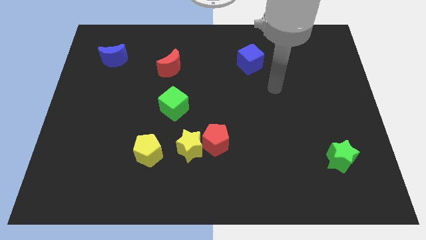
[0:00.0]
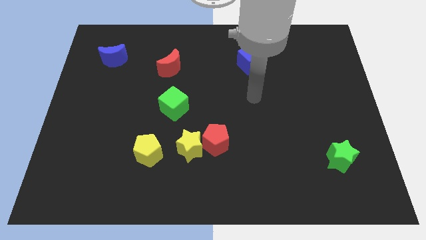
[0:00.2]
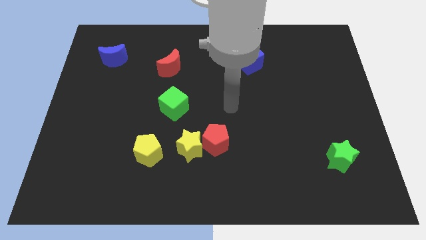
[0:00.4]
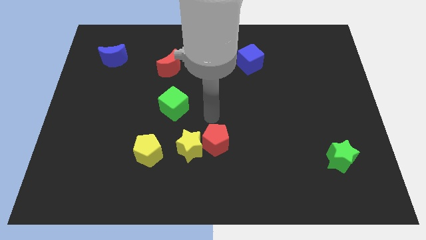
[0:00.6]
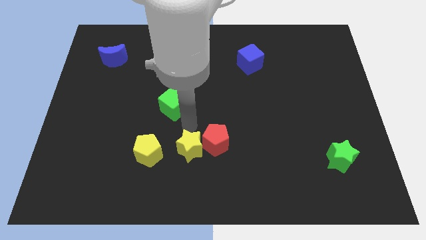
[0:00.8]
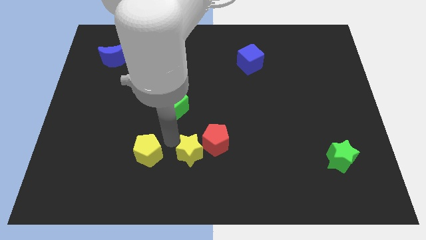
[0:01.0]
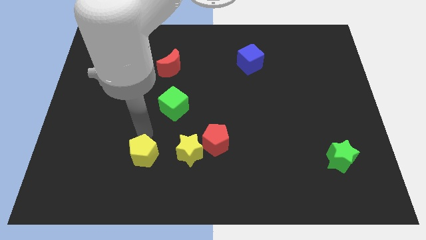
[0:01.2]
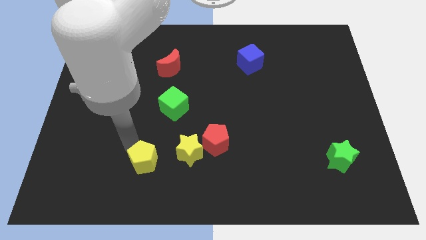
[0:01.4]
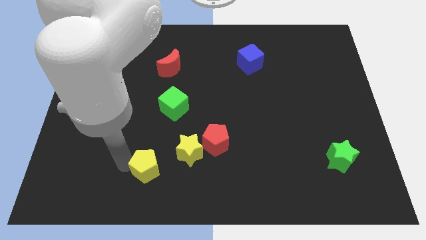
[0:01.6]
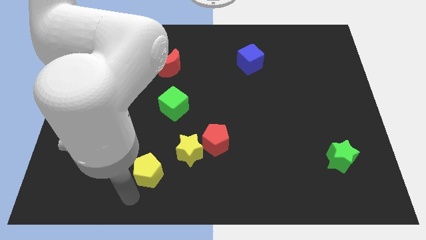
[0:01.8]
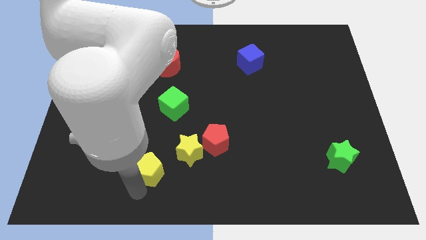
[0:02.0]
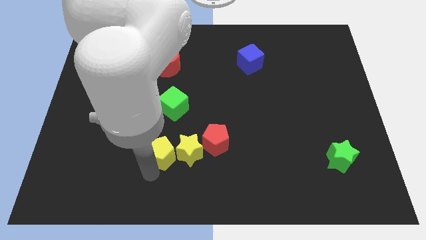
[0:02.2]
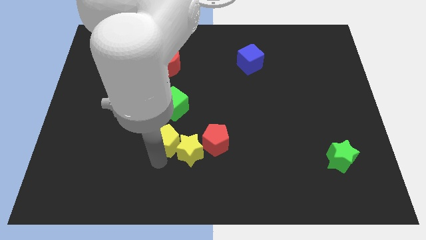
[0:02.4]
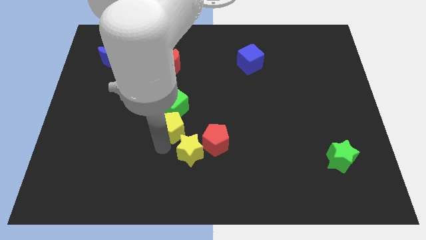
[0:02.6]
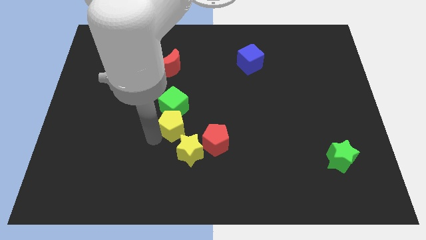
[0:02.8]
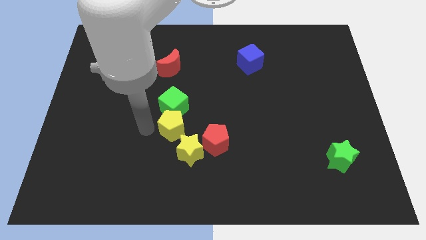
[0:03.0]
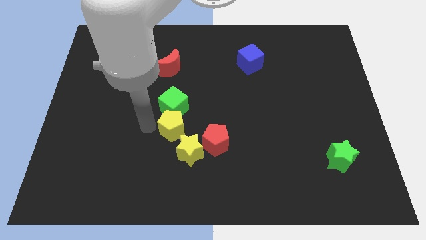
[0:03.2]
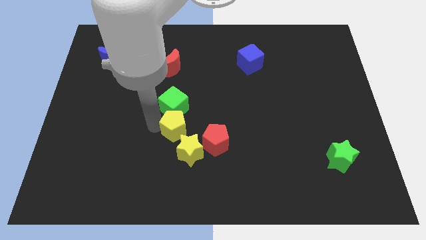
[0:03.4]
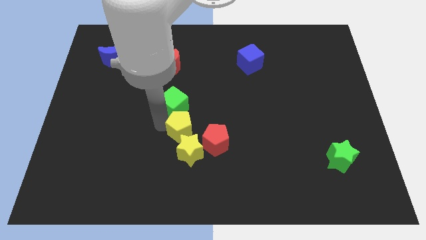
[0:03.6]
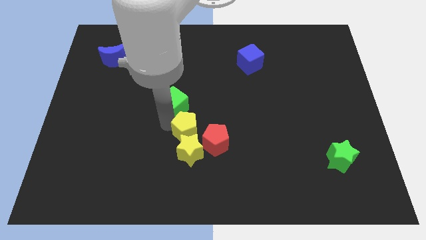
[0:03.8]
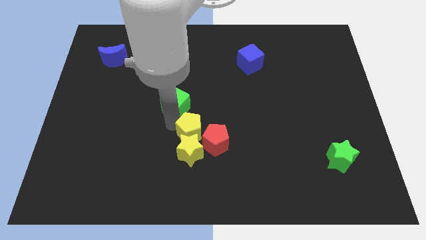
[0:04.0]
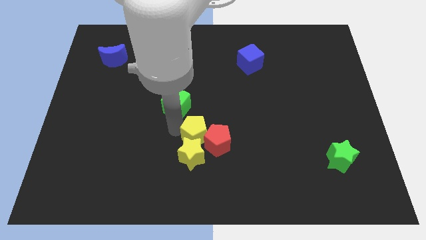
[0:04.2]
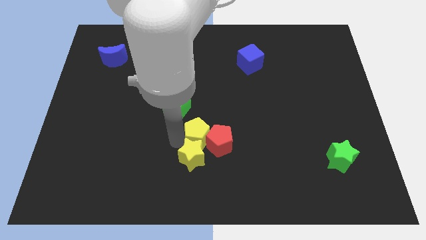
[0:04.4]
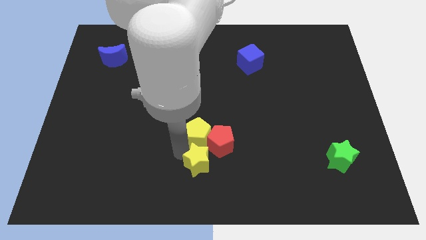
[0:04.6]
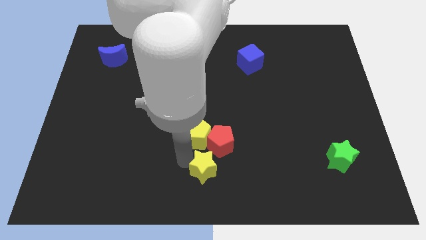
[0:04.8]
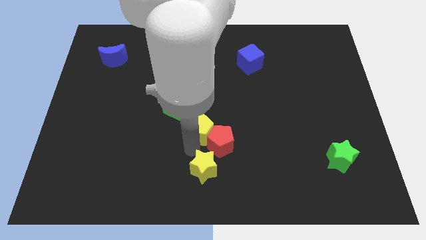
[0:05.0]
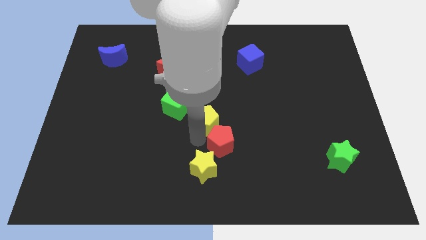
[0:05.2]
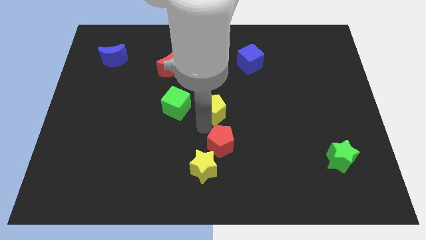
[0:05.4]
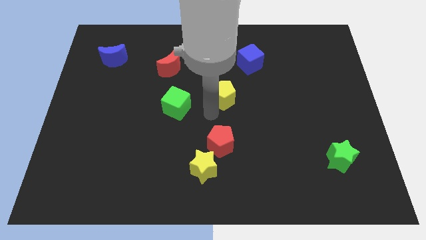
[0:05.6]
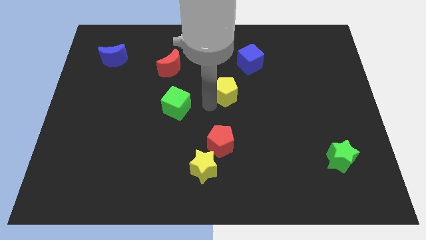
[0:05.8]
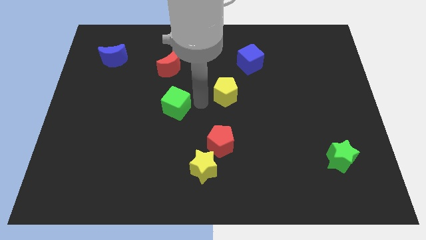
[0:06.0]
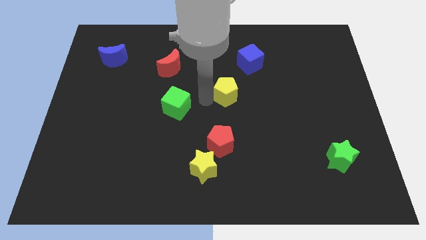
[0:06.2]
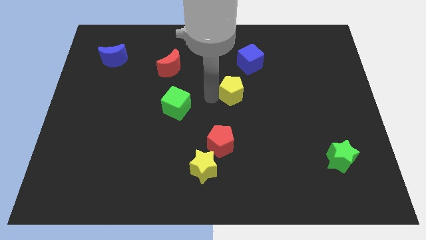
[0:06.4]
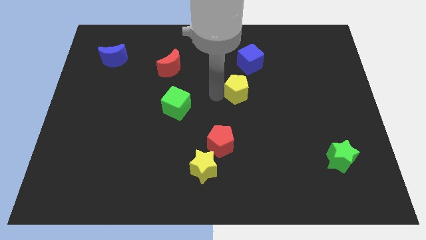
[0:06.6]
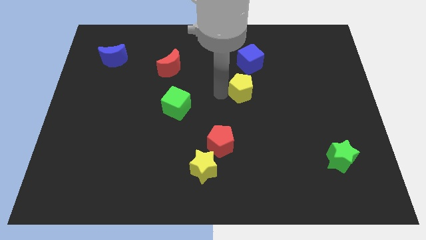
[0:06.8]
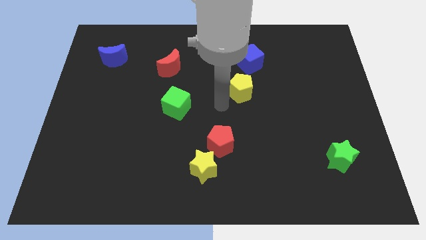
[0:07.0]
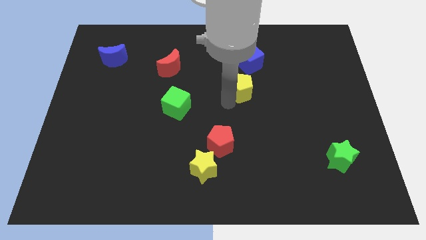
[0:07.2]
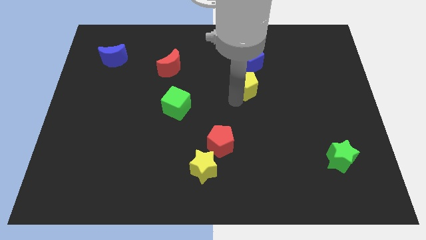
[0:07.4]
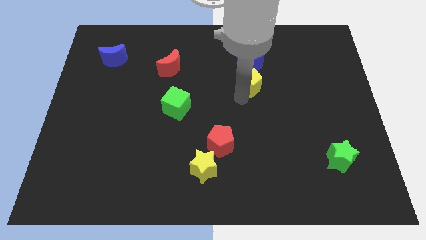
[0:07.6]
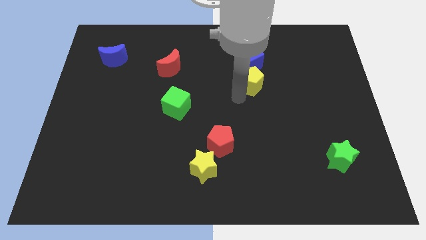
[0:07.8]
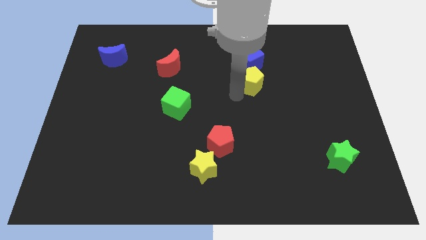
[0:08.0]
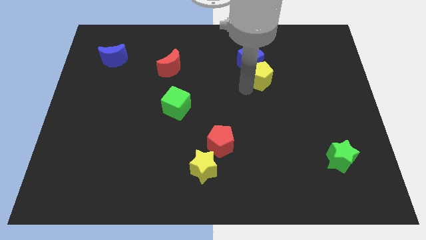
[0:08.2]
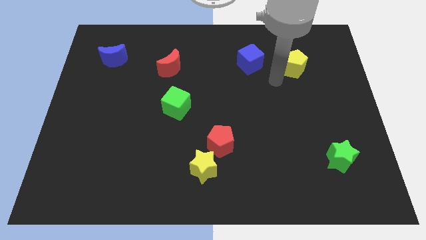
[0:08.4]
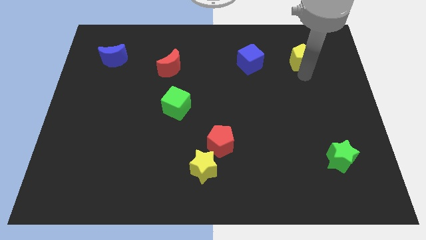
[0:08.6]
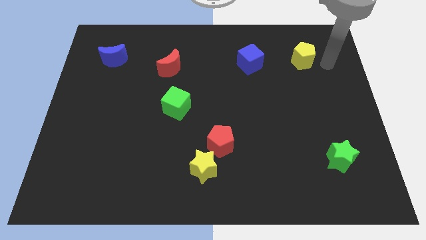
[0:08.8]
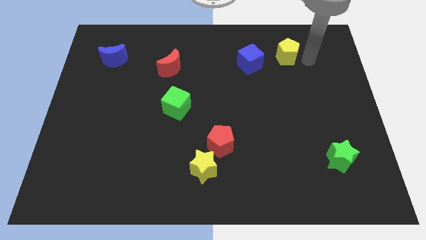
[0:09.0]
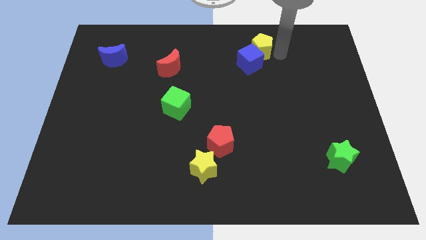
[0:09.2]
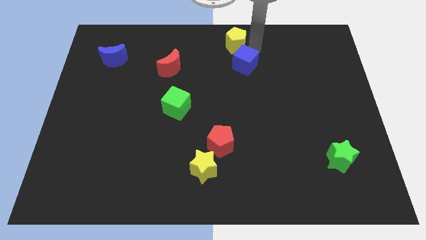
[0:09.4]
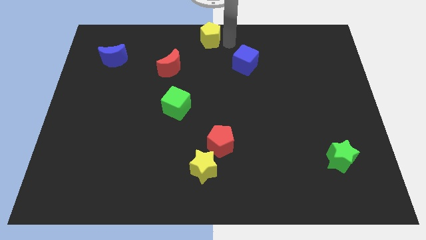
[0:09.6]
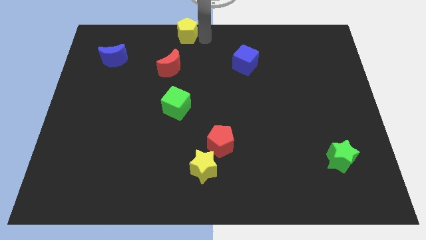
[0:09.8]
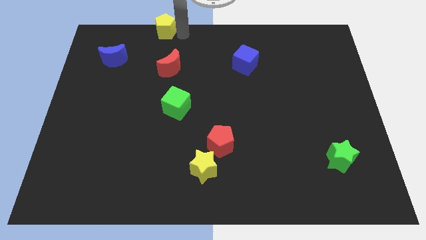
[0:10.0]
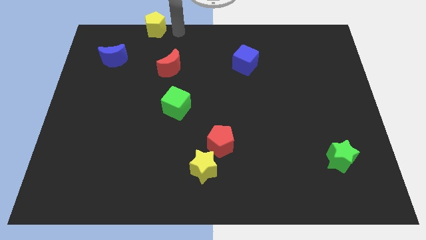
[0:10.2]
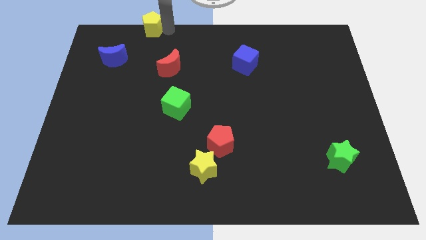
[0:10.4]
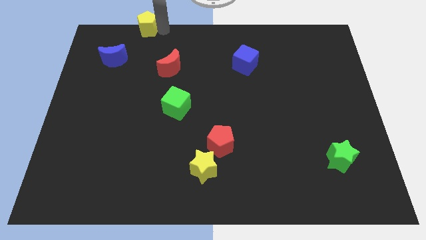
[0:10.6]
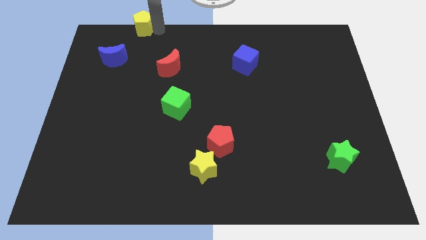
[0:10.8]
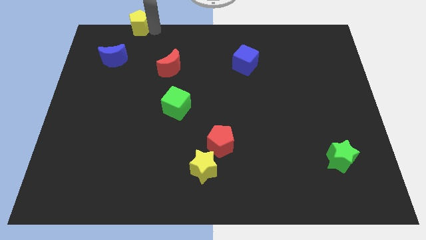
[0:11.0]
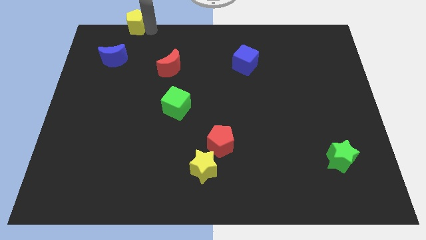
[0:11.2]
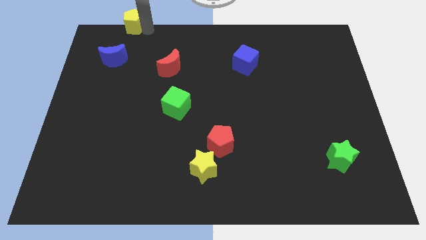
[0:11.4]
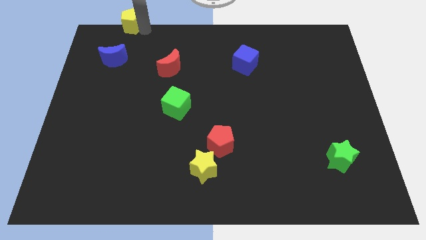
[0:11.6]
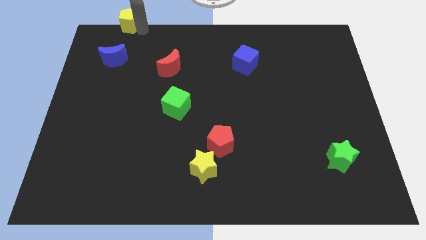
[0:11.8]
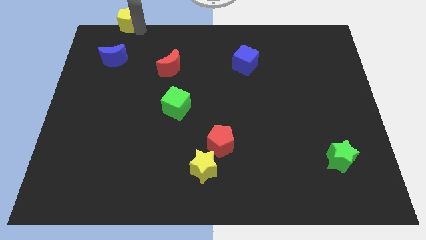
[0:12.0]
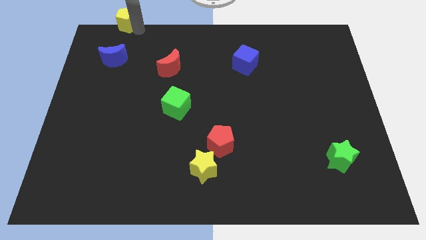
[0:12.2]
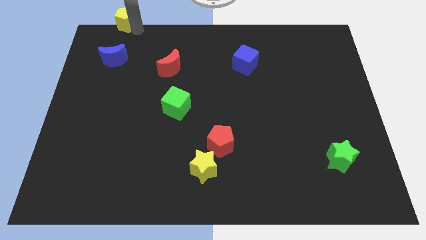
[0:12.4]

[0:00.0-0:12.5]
push the yellow pentagon to the top left of the board

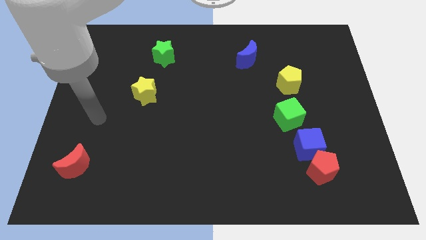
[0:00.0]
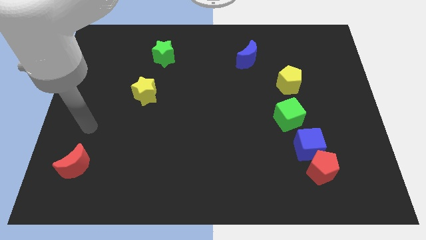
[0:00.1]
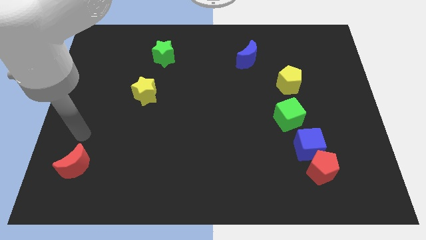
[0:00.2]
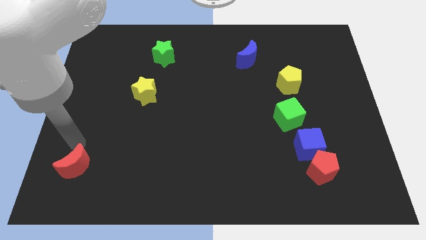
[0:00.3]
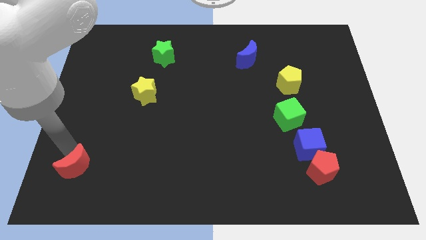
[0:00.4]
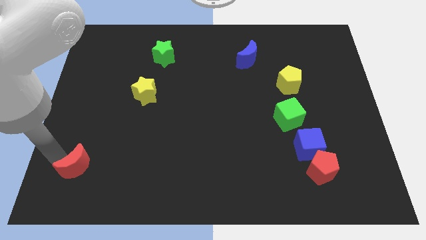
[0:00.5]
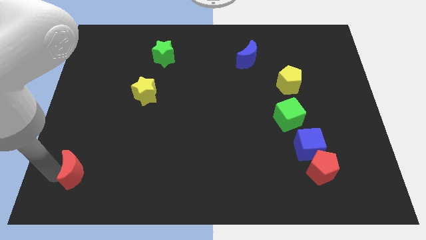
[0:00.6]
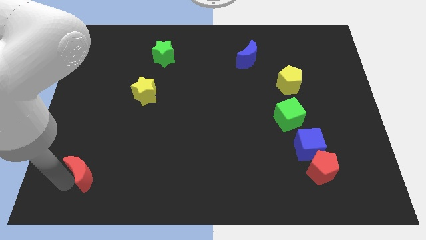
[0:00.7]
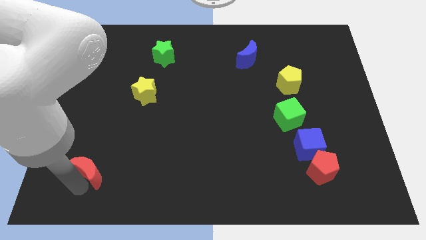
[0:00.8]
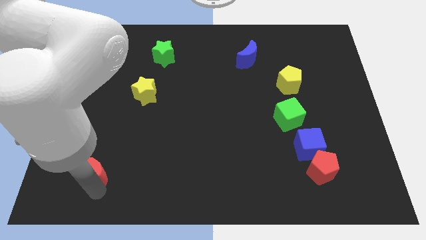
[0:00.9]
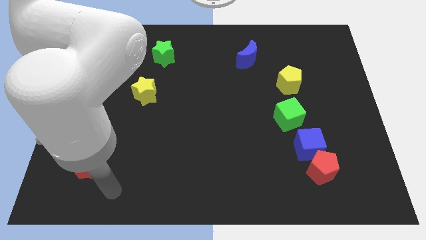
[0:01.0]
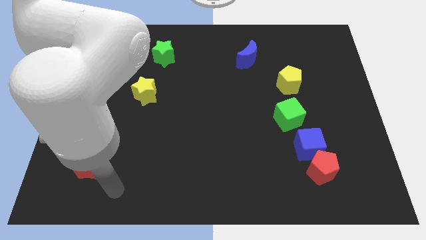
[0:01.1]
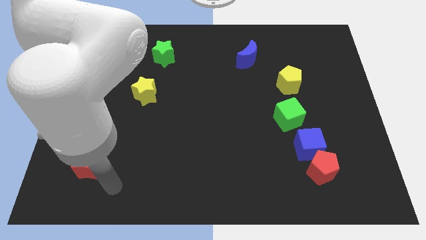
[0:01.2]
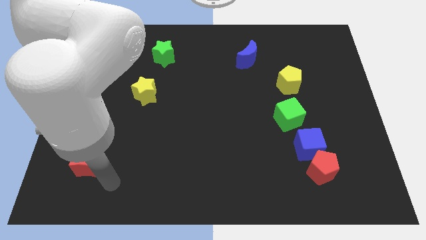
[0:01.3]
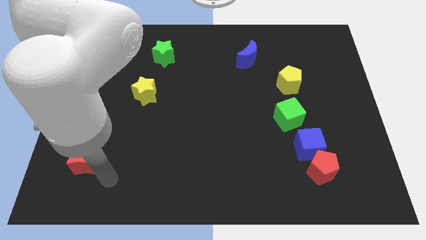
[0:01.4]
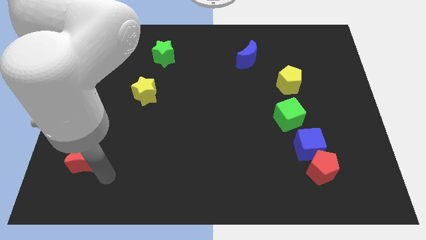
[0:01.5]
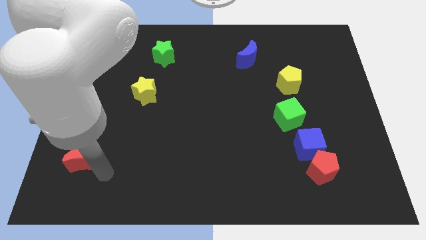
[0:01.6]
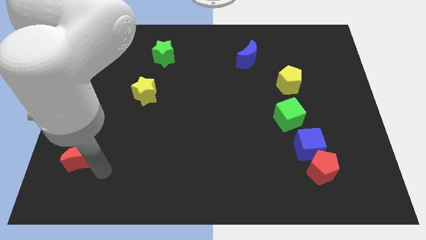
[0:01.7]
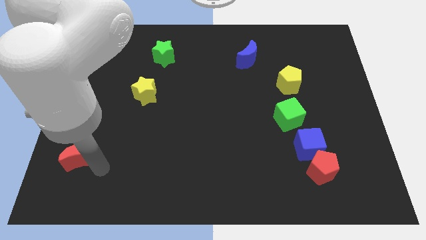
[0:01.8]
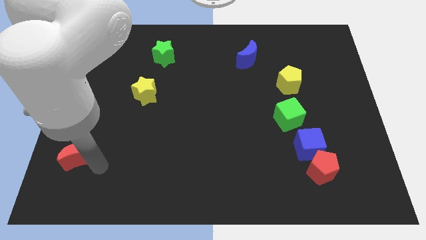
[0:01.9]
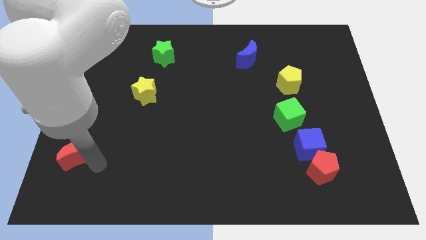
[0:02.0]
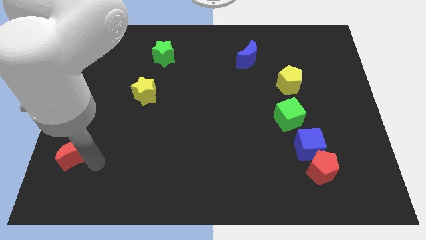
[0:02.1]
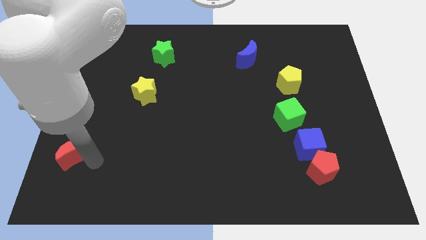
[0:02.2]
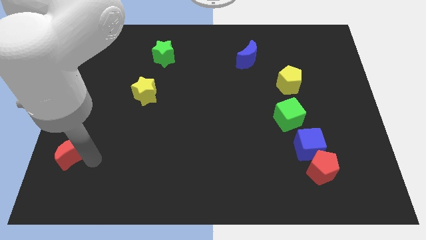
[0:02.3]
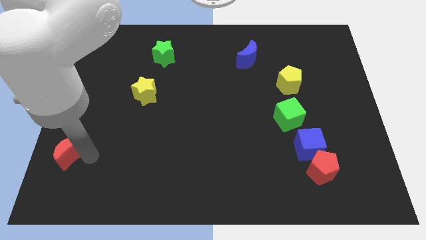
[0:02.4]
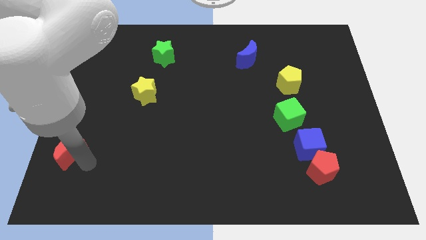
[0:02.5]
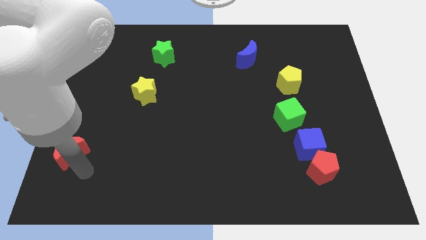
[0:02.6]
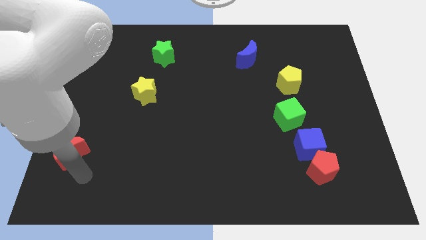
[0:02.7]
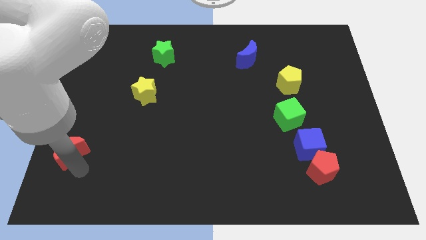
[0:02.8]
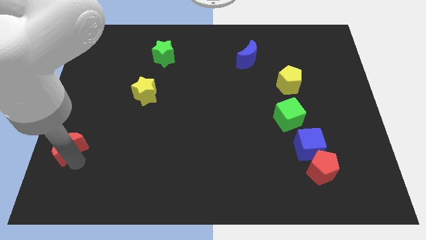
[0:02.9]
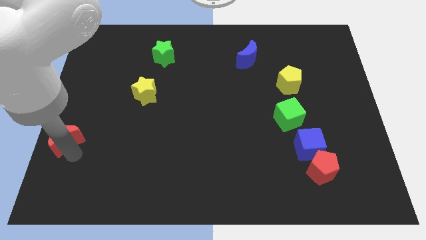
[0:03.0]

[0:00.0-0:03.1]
push the red moon to the left side
